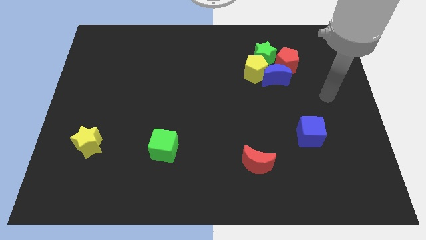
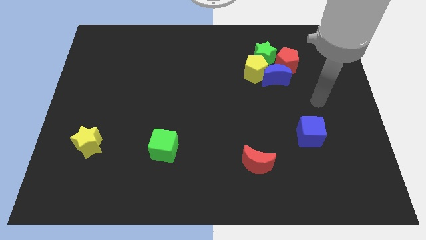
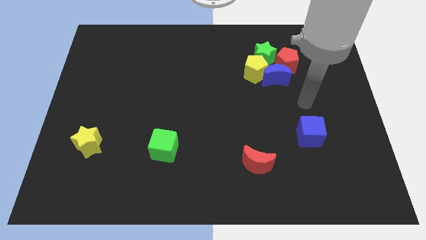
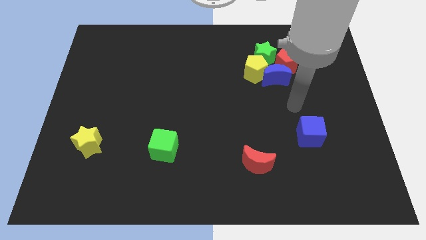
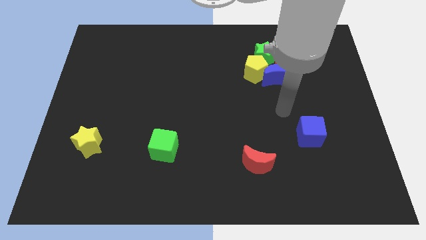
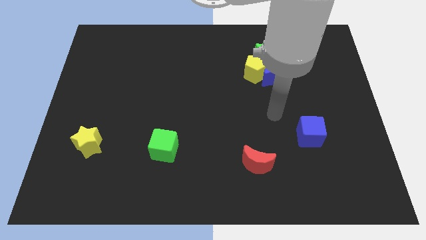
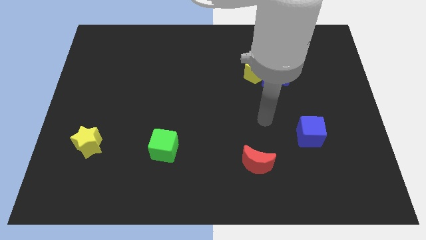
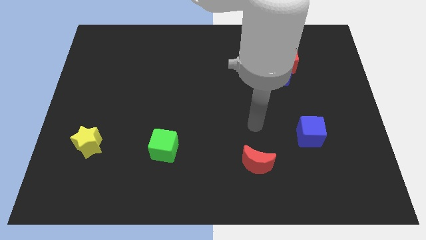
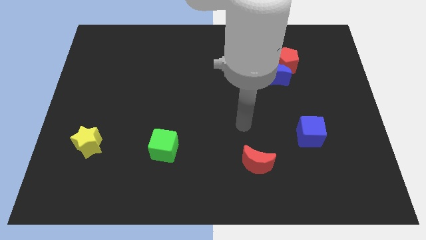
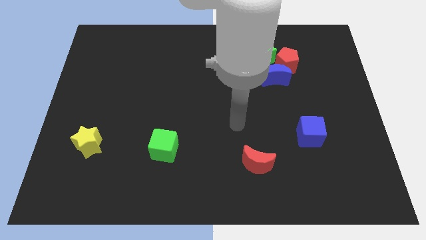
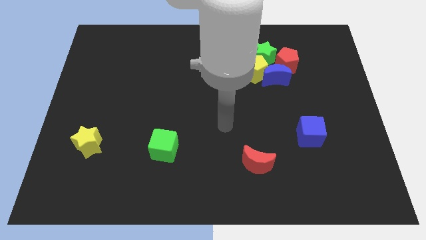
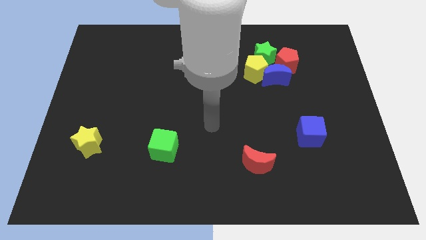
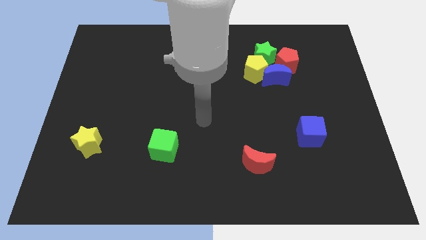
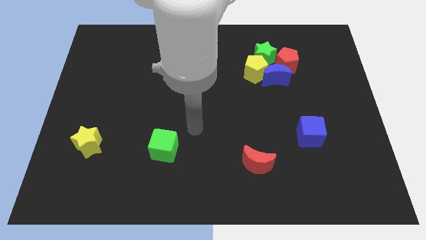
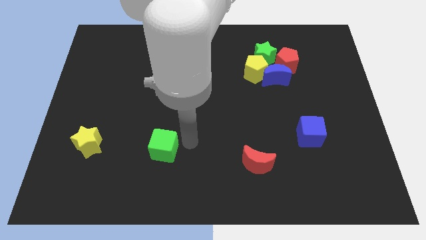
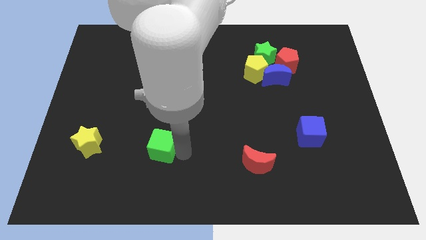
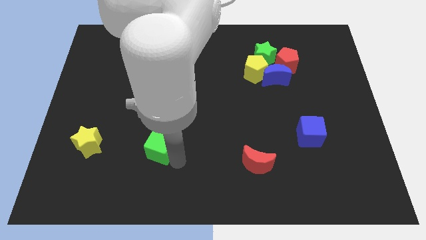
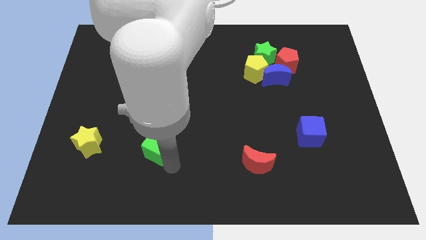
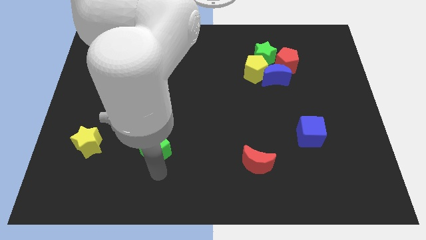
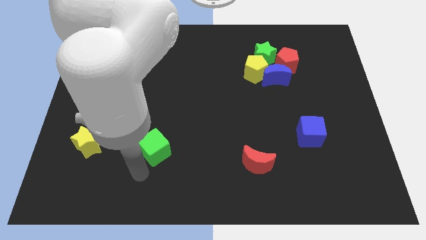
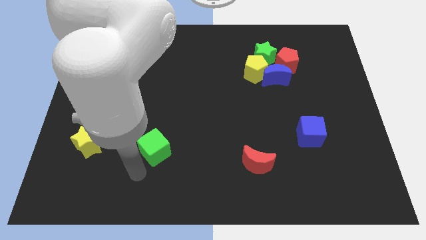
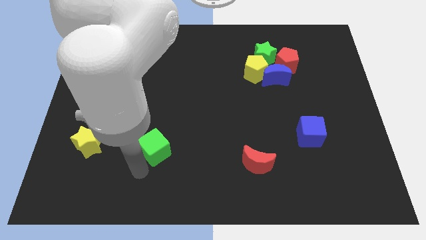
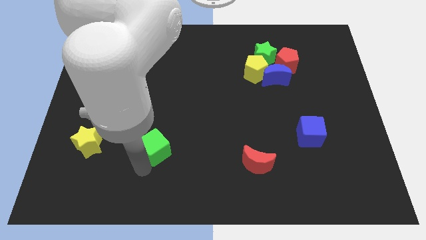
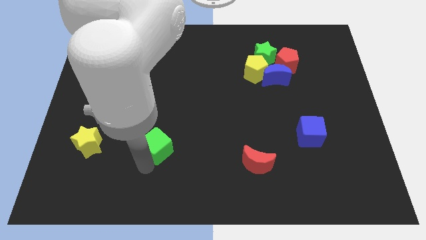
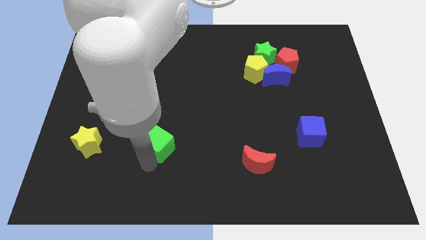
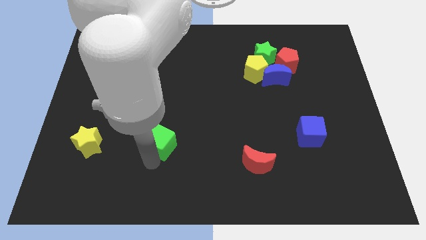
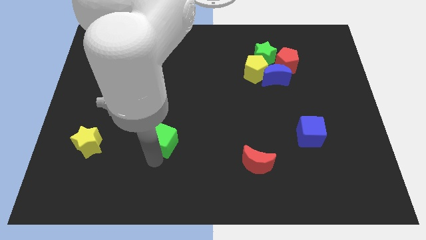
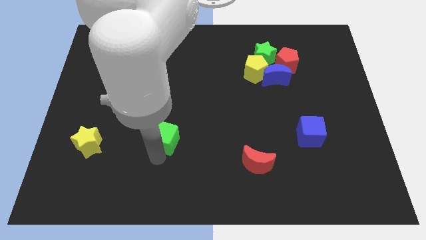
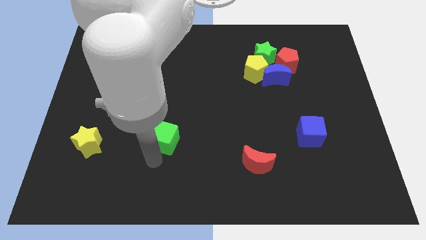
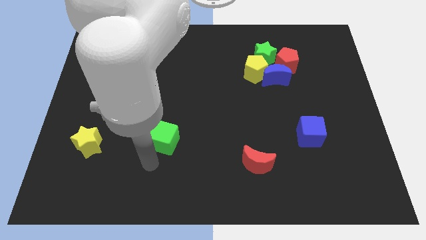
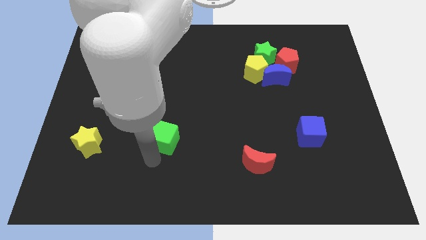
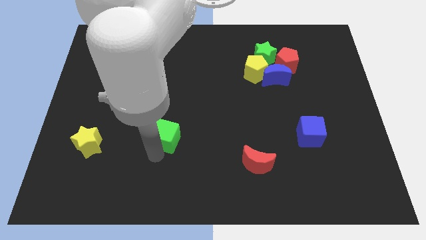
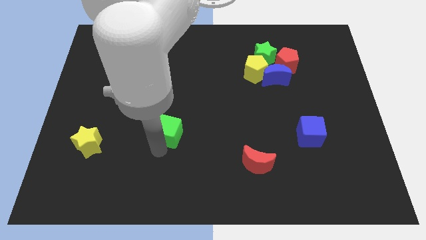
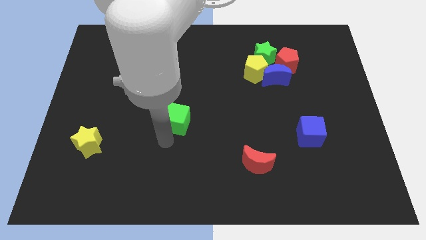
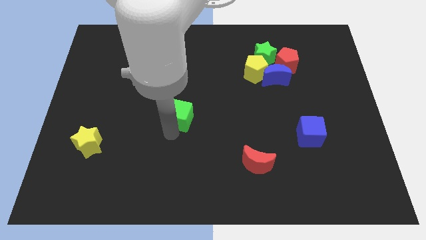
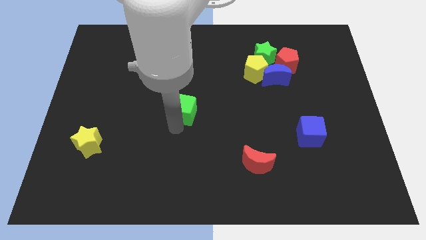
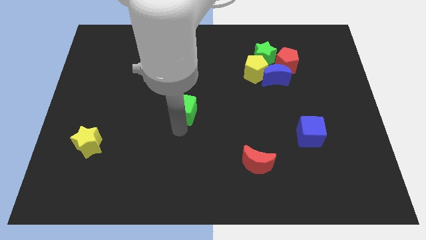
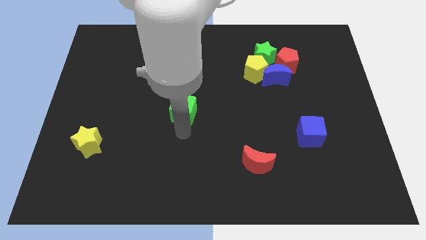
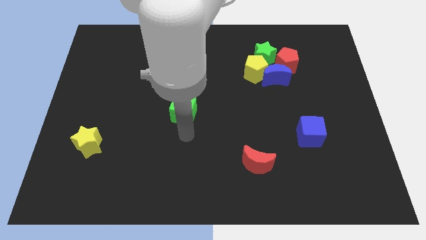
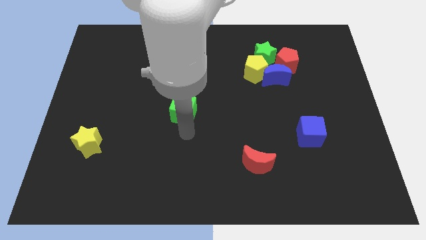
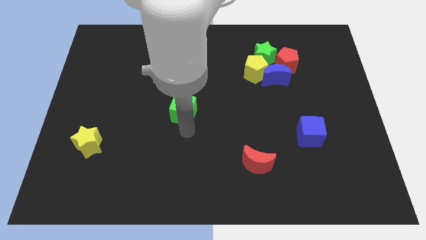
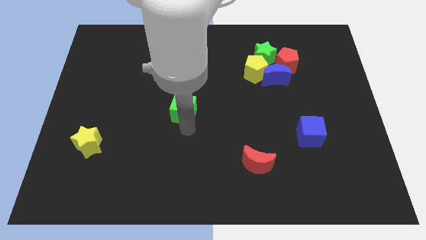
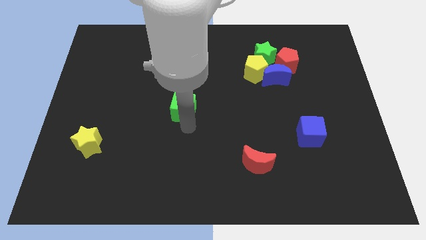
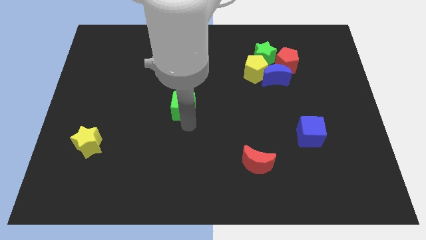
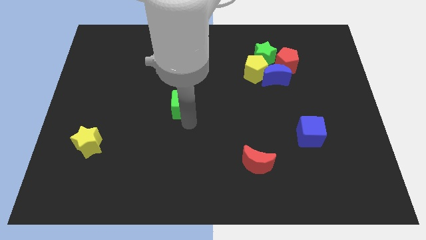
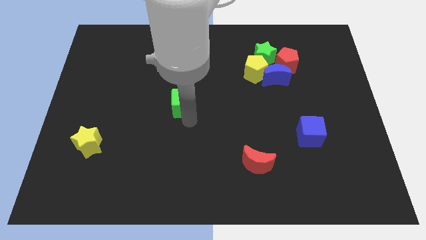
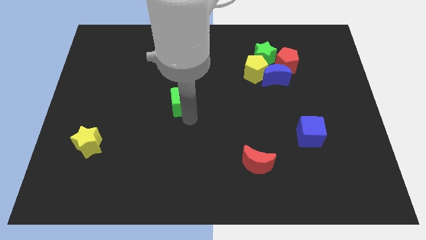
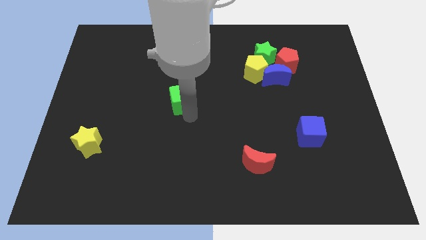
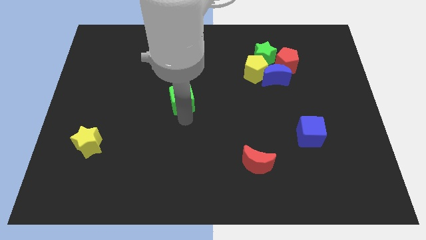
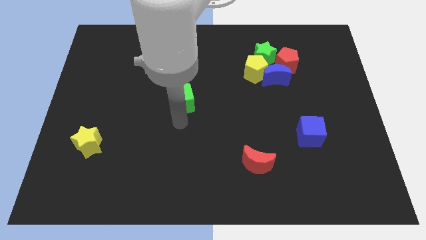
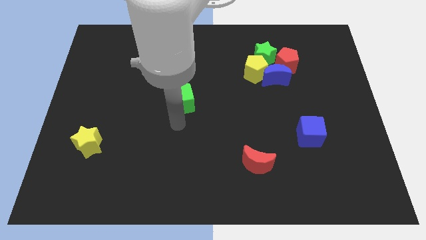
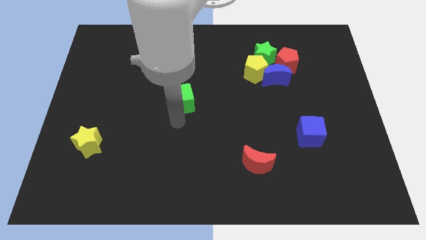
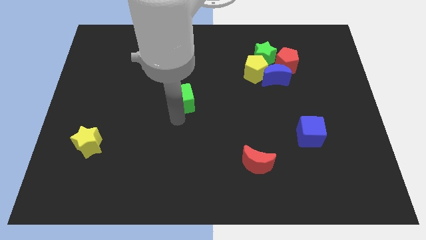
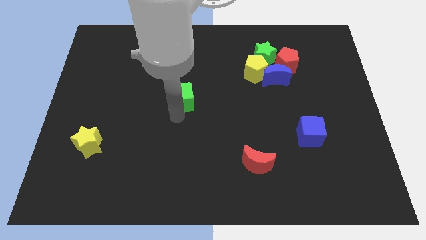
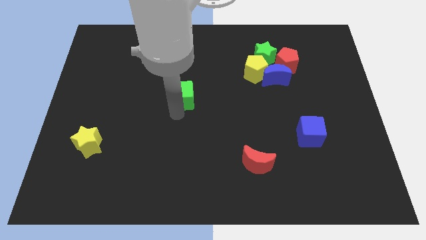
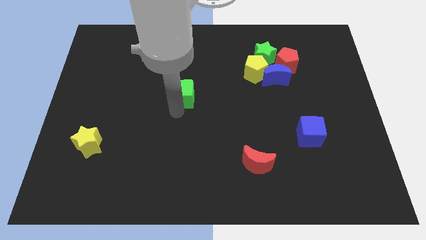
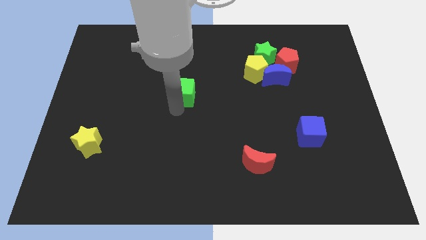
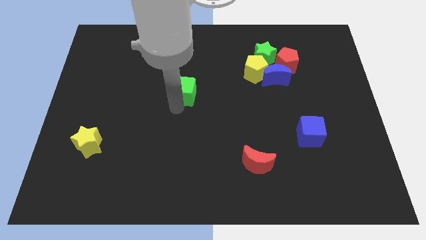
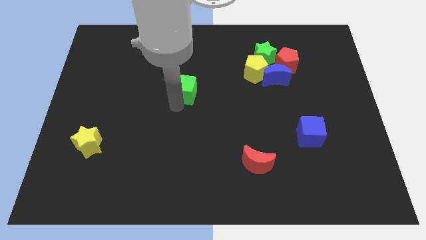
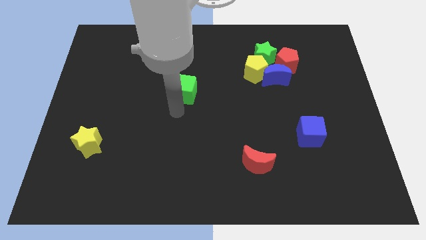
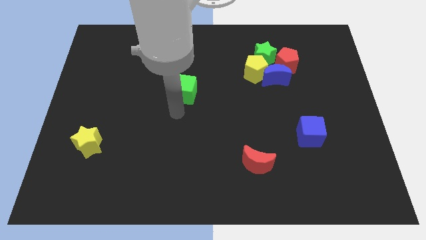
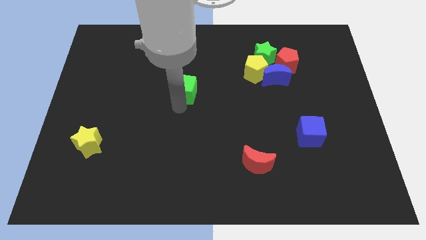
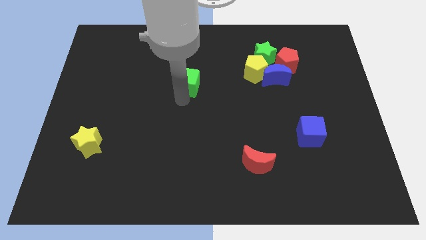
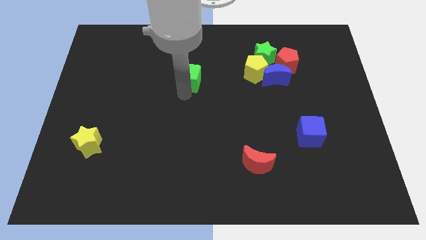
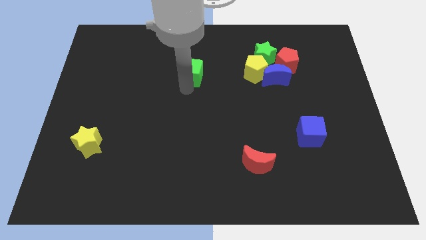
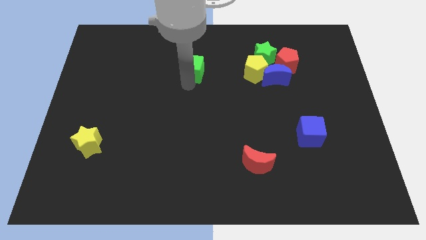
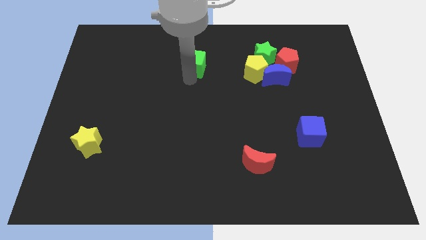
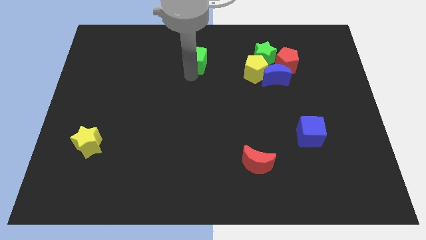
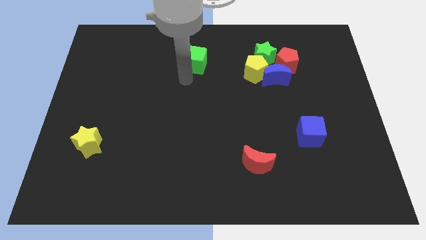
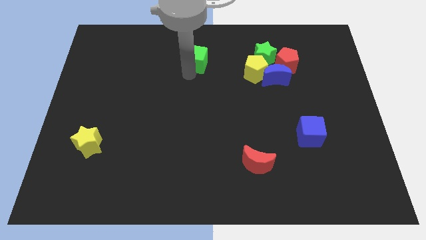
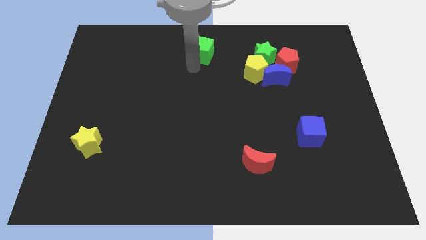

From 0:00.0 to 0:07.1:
move the green cube to the towards your base
